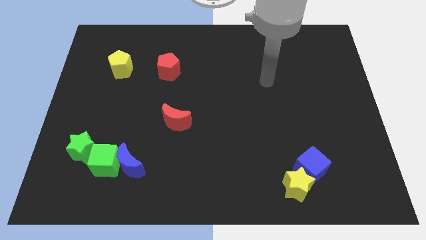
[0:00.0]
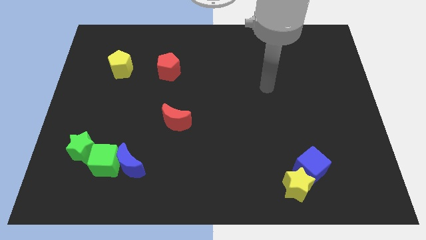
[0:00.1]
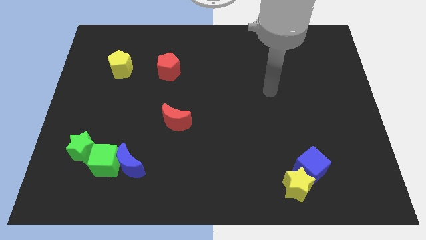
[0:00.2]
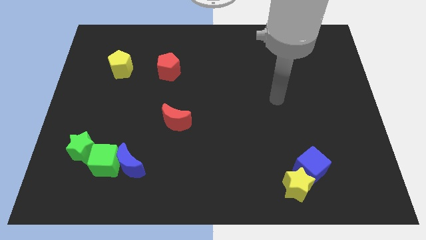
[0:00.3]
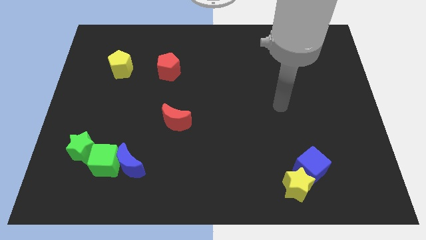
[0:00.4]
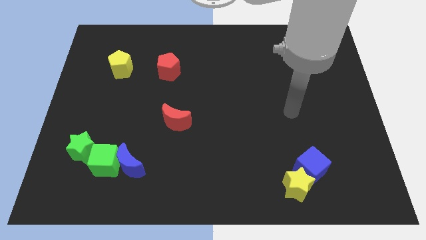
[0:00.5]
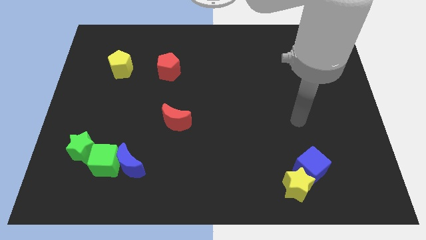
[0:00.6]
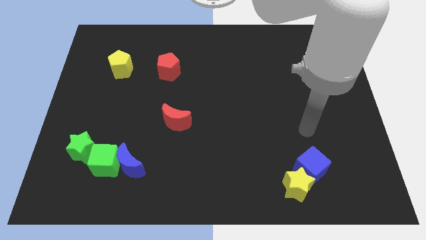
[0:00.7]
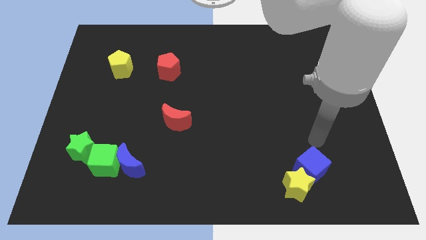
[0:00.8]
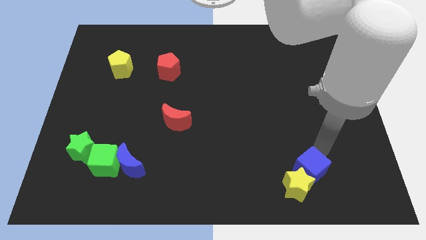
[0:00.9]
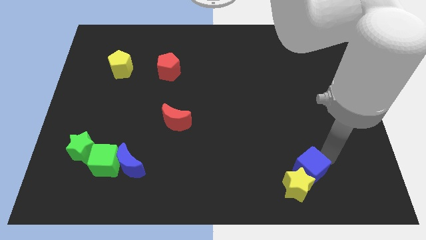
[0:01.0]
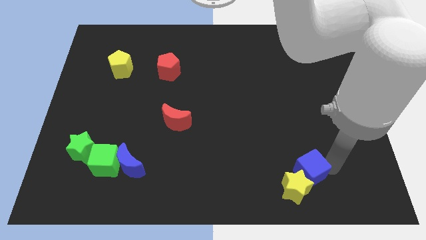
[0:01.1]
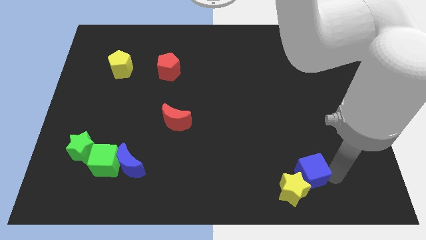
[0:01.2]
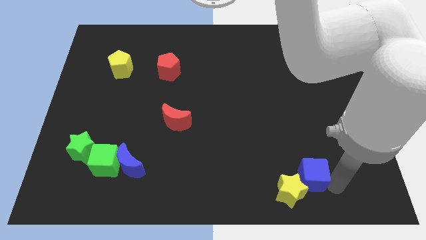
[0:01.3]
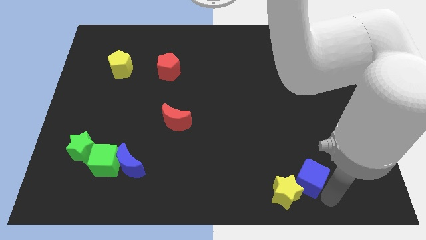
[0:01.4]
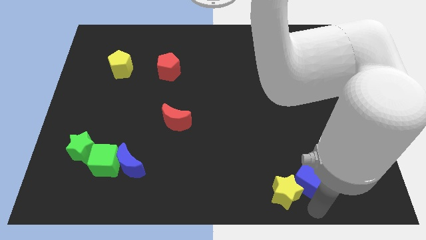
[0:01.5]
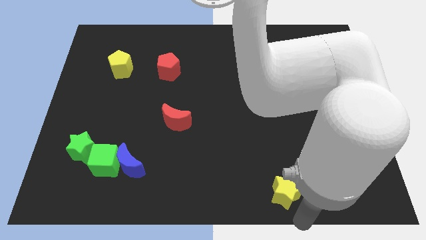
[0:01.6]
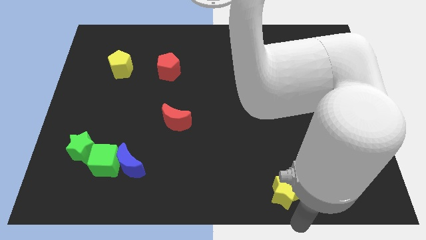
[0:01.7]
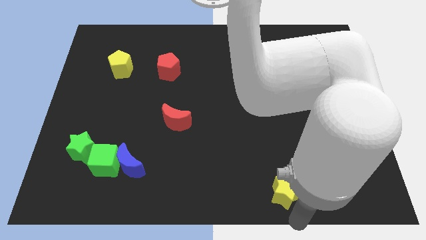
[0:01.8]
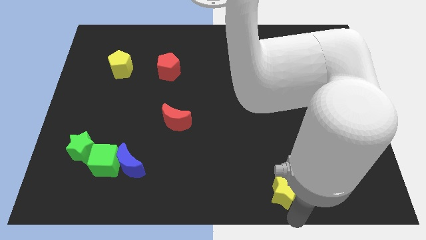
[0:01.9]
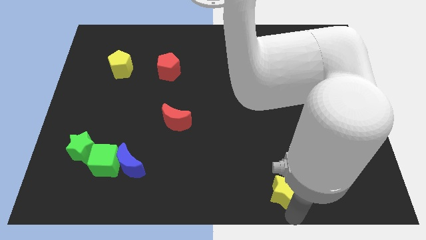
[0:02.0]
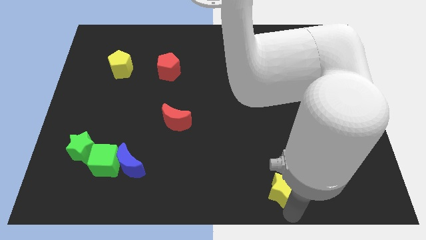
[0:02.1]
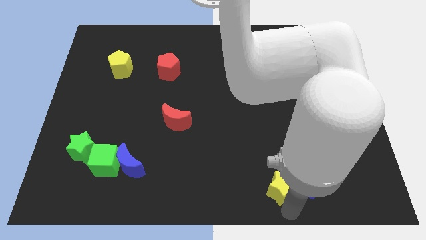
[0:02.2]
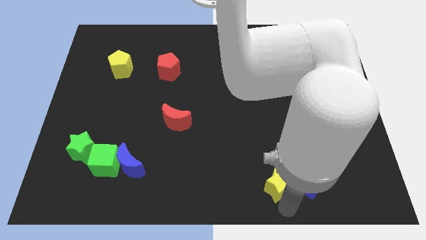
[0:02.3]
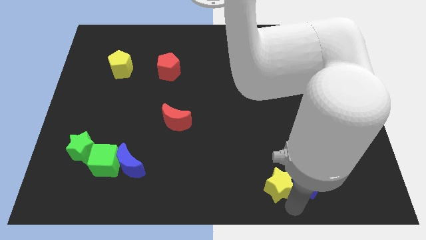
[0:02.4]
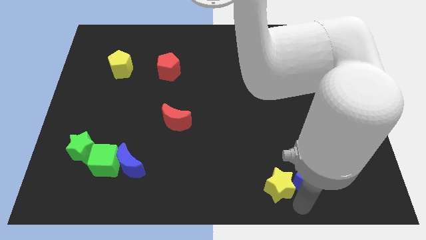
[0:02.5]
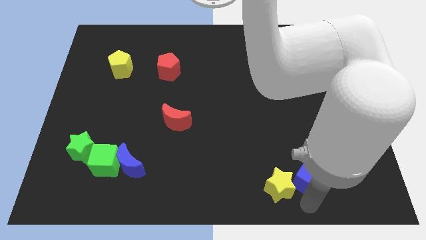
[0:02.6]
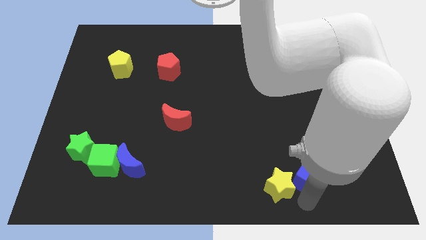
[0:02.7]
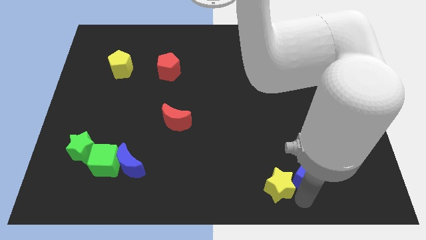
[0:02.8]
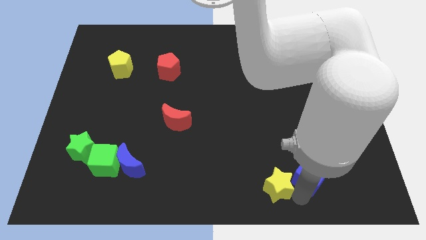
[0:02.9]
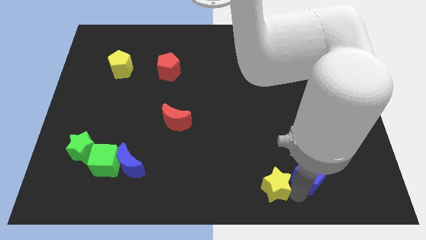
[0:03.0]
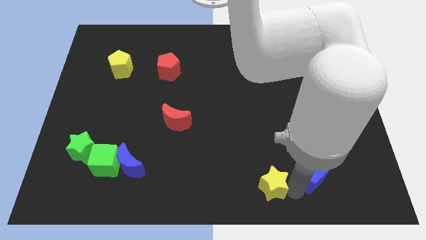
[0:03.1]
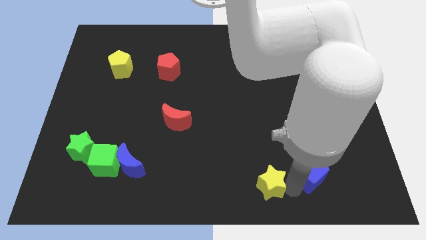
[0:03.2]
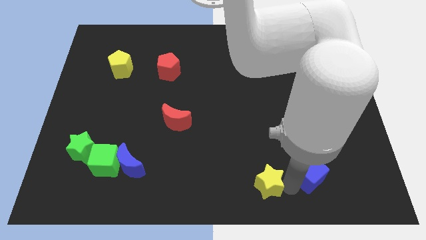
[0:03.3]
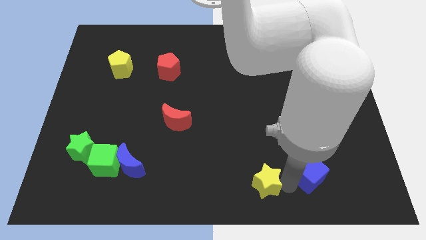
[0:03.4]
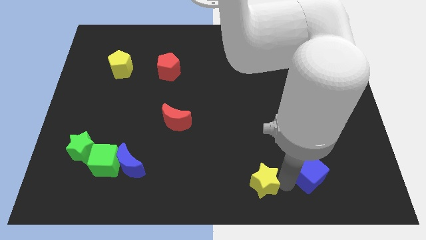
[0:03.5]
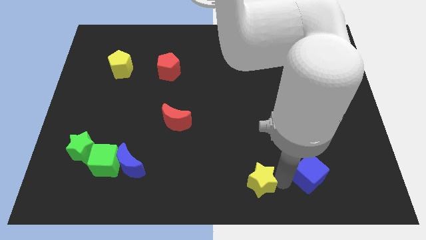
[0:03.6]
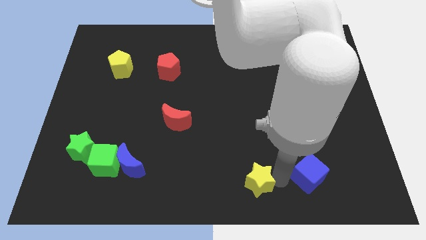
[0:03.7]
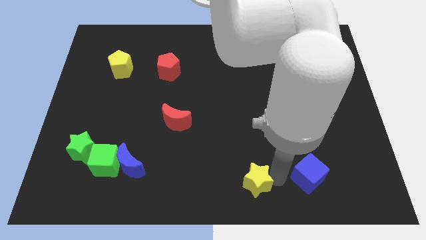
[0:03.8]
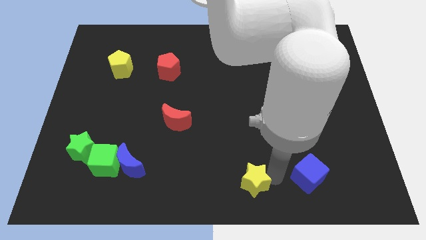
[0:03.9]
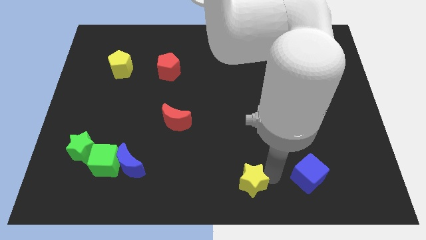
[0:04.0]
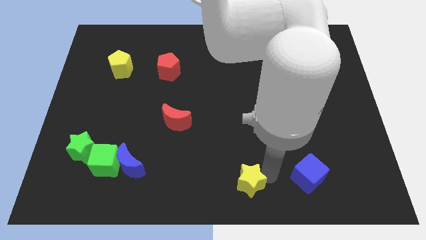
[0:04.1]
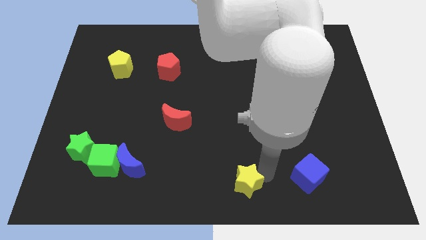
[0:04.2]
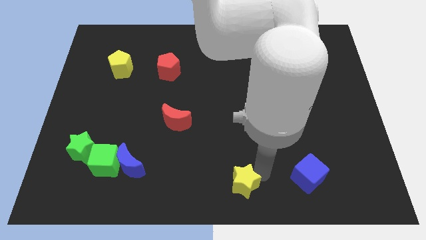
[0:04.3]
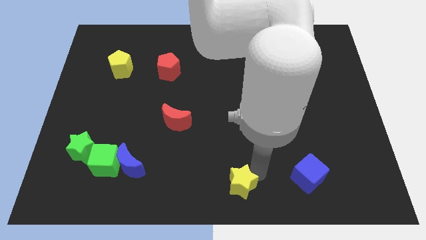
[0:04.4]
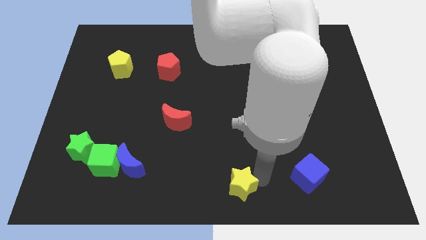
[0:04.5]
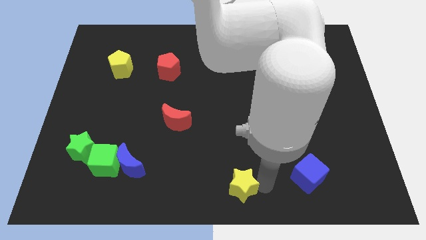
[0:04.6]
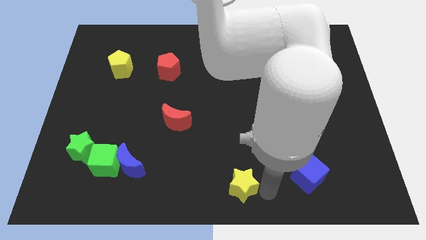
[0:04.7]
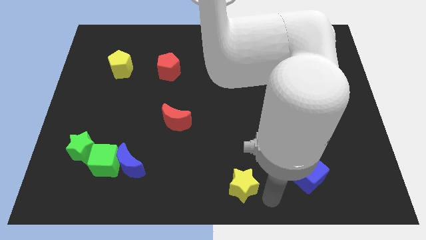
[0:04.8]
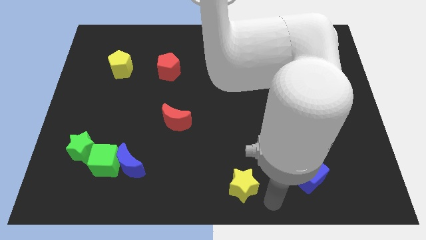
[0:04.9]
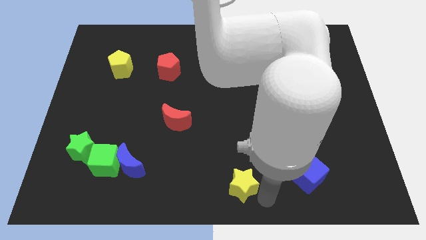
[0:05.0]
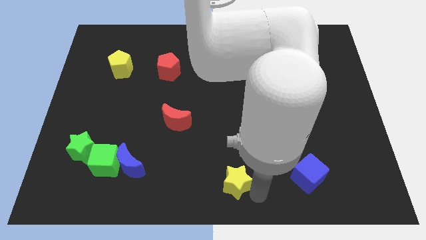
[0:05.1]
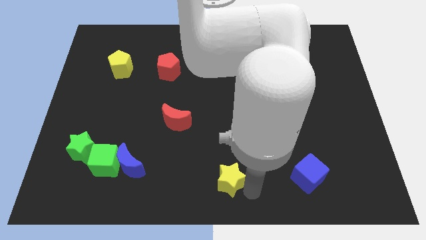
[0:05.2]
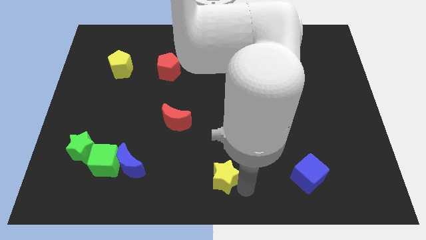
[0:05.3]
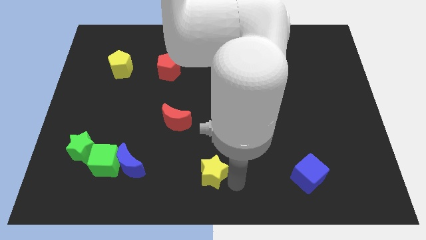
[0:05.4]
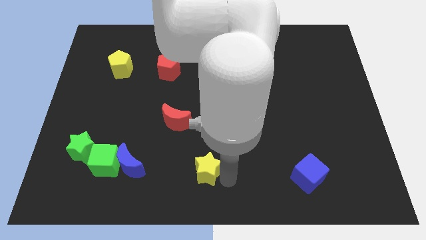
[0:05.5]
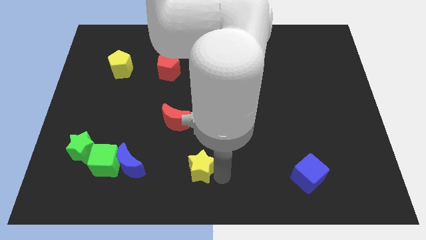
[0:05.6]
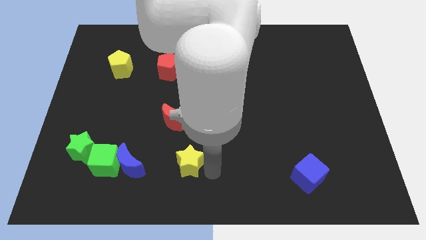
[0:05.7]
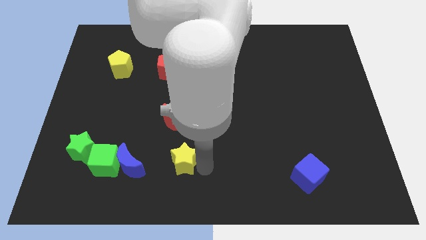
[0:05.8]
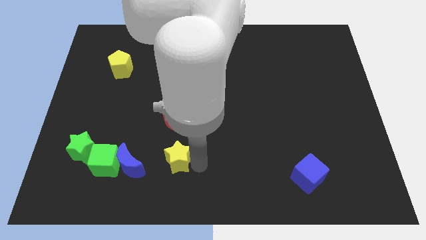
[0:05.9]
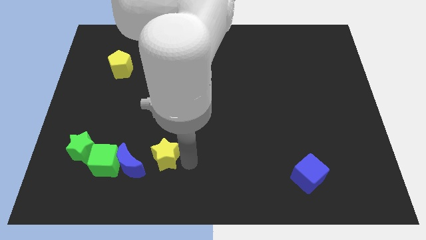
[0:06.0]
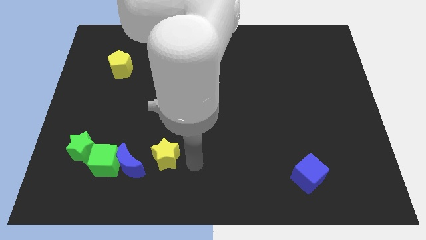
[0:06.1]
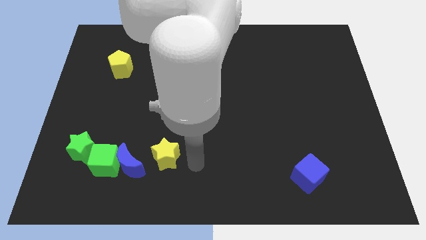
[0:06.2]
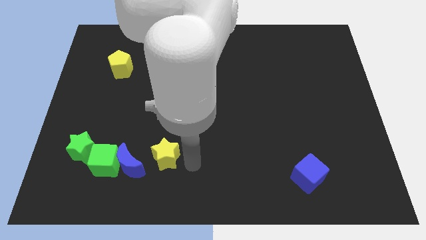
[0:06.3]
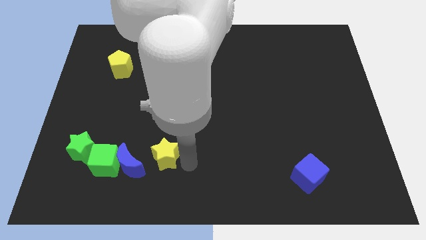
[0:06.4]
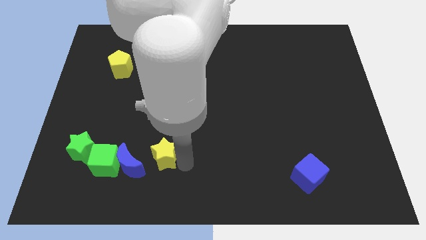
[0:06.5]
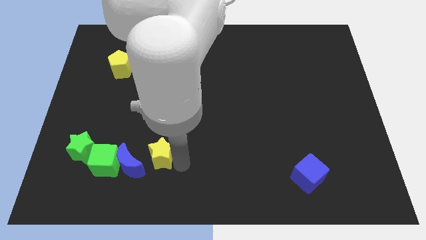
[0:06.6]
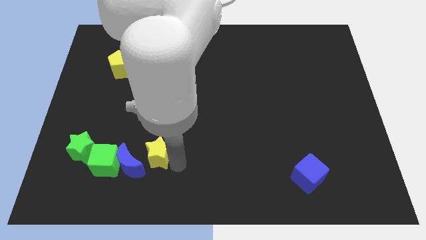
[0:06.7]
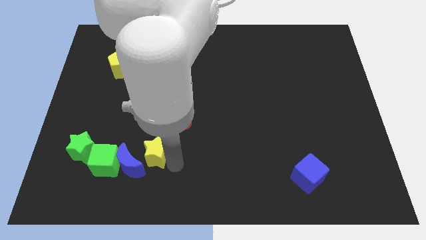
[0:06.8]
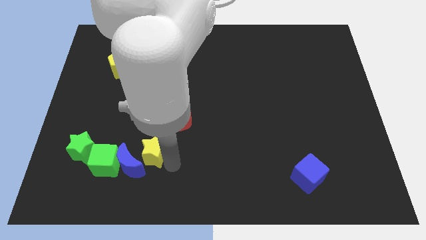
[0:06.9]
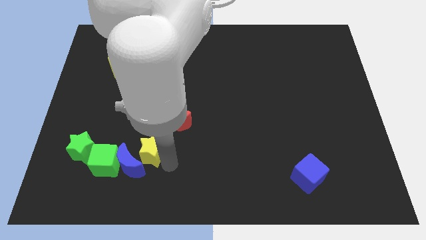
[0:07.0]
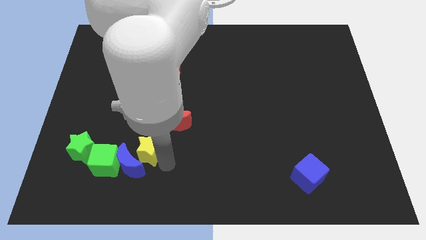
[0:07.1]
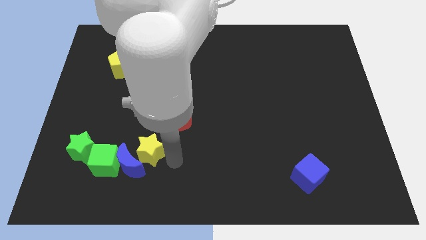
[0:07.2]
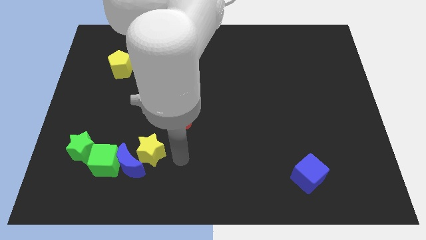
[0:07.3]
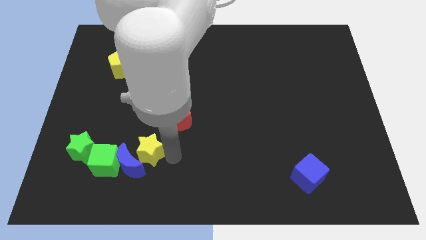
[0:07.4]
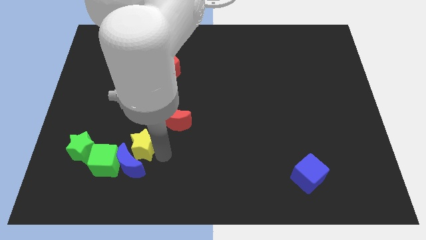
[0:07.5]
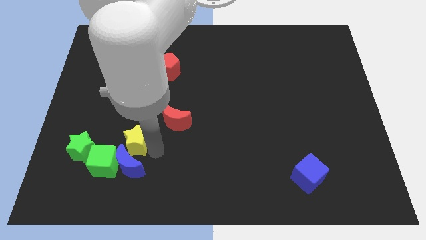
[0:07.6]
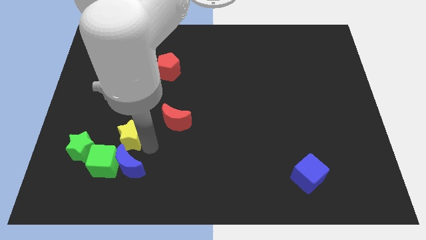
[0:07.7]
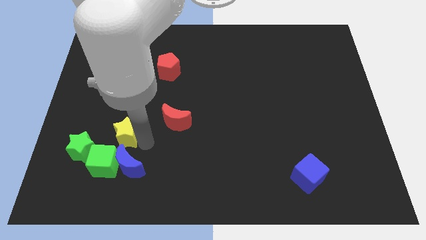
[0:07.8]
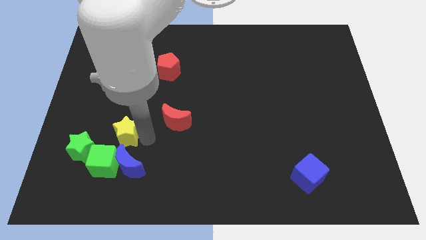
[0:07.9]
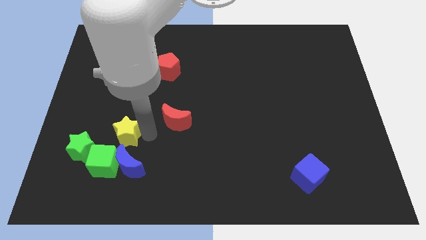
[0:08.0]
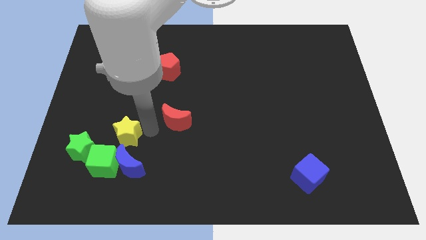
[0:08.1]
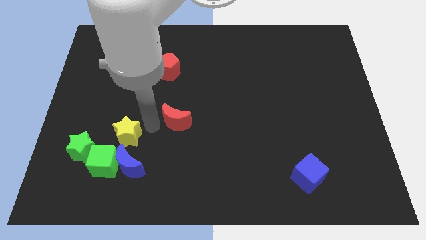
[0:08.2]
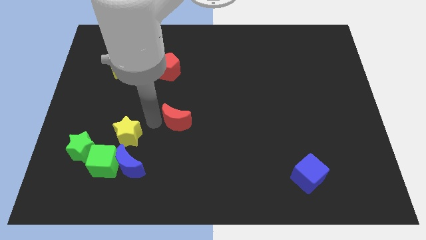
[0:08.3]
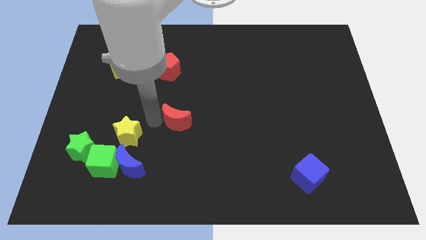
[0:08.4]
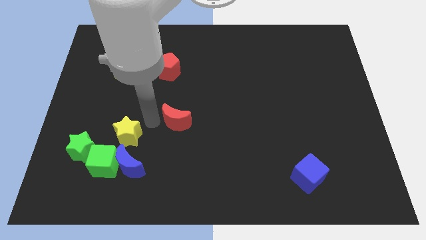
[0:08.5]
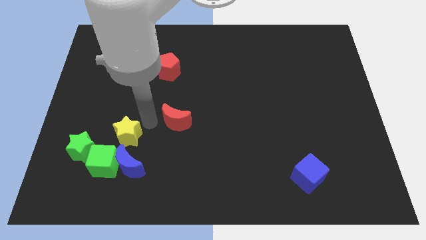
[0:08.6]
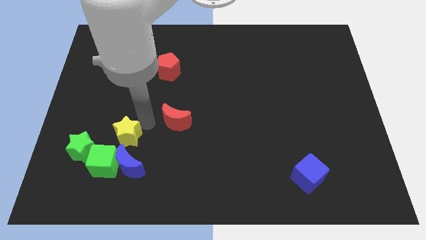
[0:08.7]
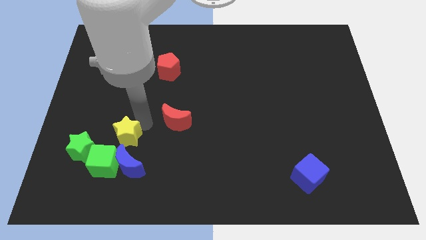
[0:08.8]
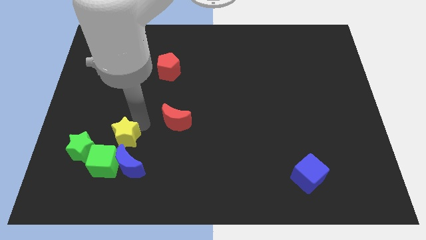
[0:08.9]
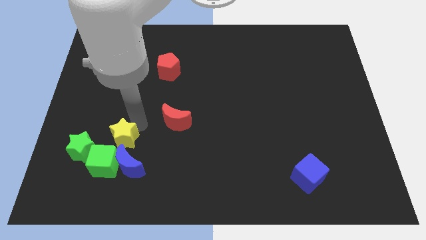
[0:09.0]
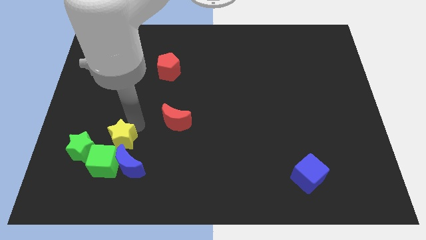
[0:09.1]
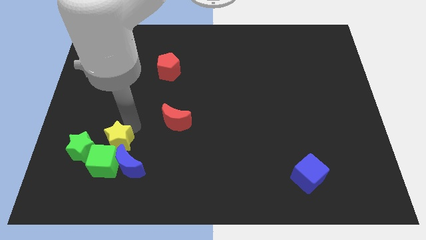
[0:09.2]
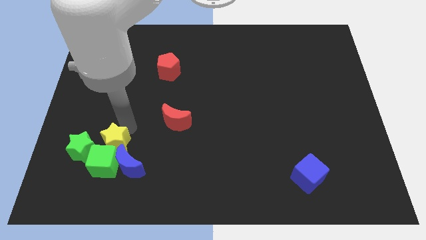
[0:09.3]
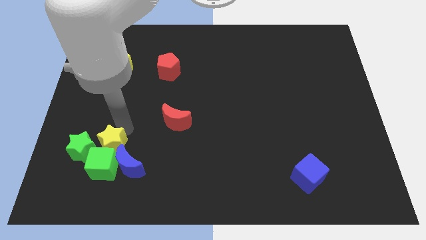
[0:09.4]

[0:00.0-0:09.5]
put the yellow star close to the green star
